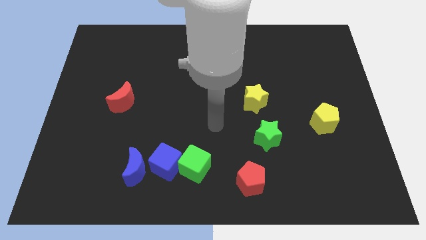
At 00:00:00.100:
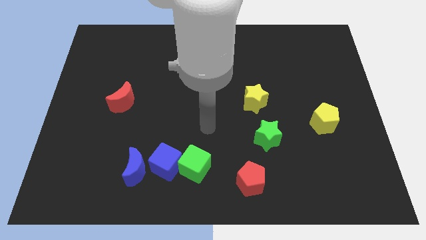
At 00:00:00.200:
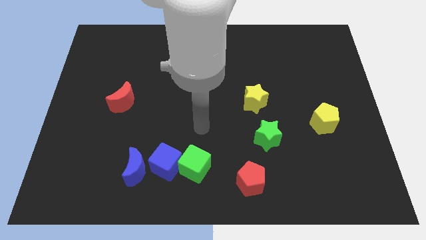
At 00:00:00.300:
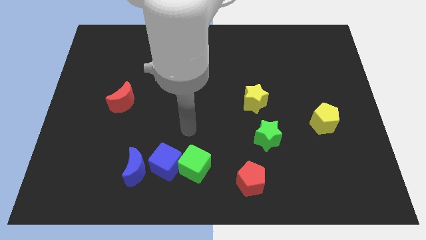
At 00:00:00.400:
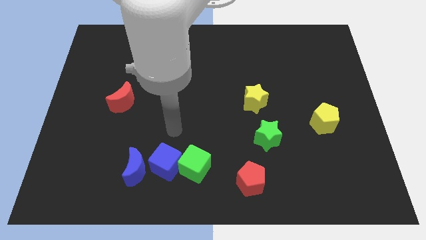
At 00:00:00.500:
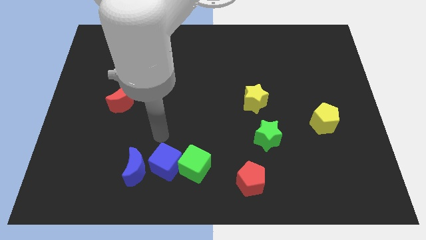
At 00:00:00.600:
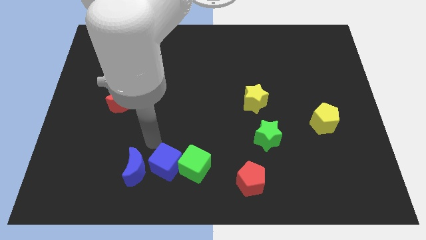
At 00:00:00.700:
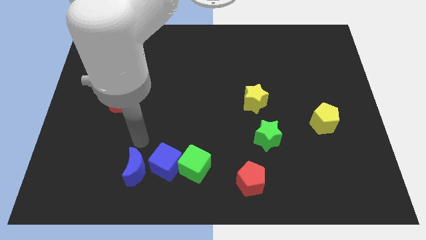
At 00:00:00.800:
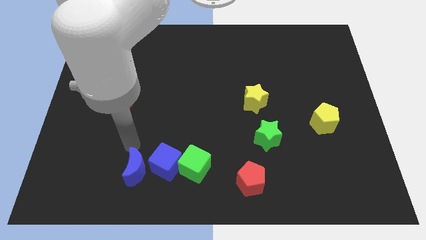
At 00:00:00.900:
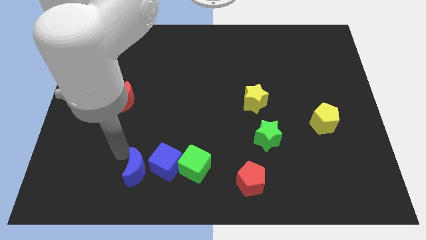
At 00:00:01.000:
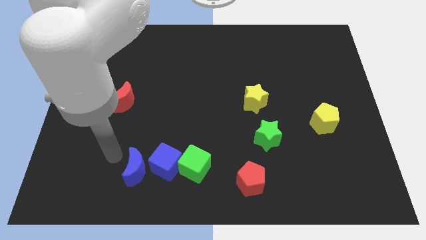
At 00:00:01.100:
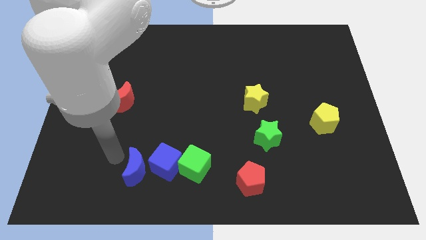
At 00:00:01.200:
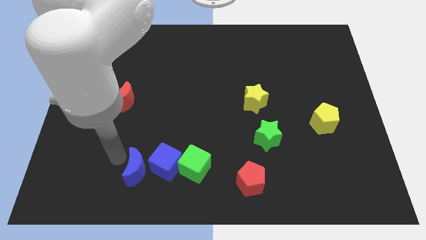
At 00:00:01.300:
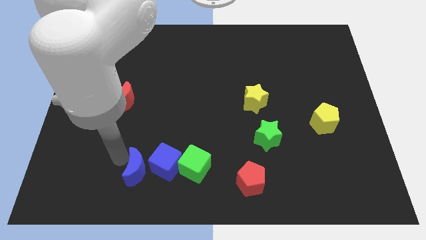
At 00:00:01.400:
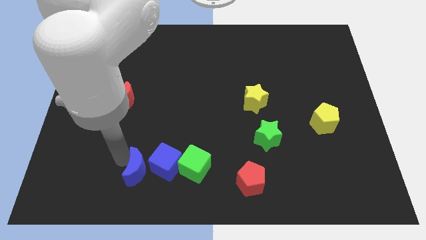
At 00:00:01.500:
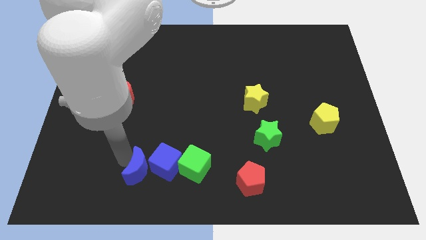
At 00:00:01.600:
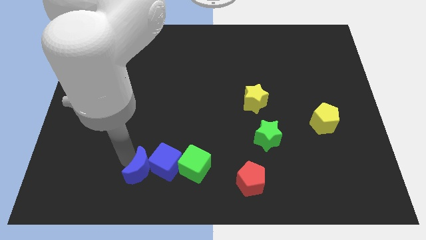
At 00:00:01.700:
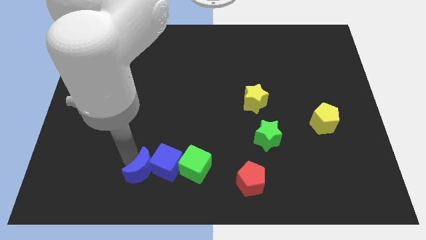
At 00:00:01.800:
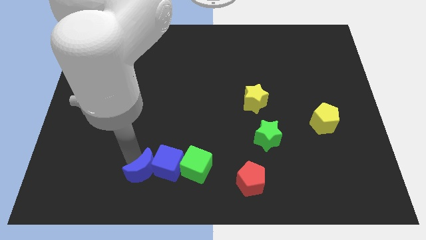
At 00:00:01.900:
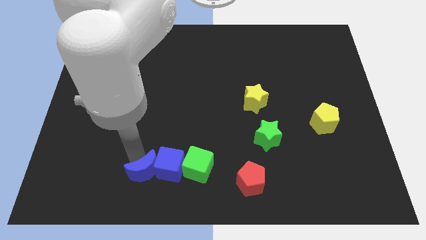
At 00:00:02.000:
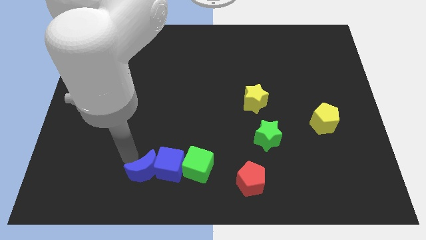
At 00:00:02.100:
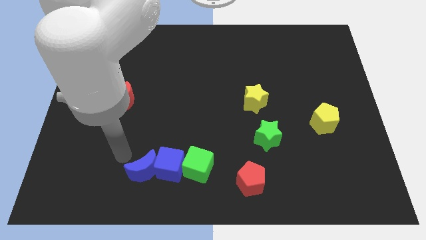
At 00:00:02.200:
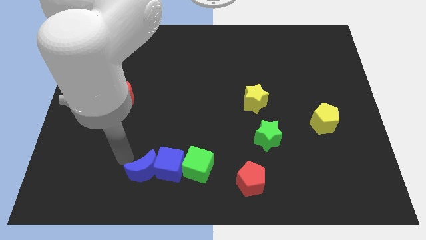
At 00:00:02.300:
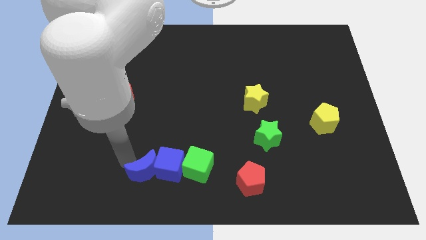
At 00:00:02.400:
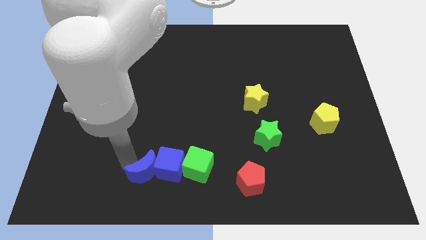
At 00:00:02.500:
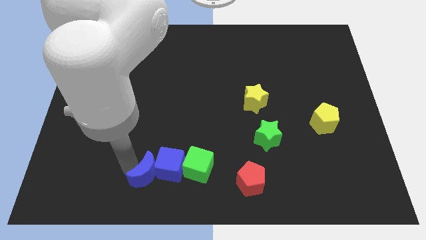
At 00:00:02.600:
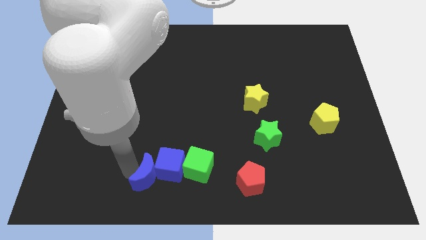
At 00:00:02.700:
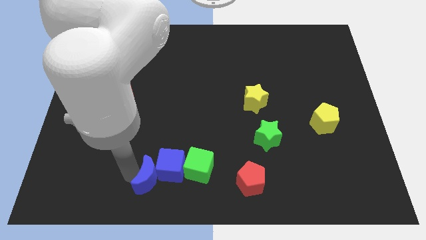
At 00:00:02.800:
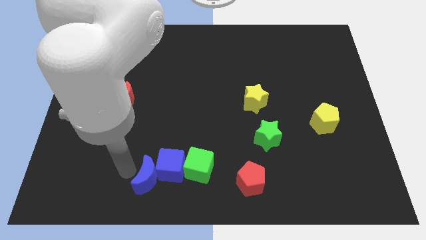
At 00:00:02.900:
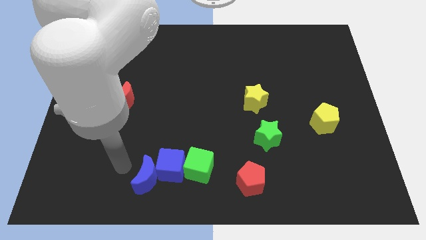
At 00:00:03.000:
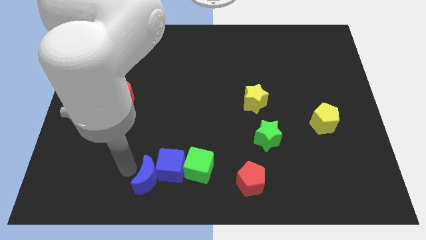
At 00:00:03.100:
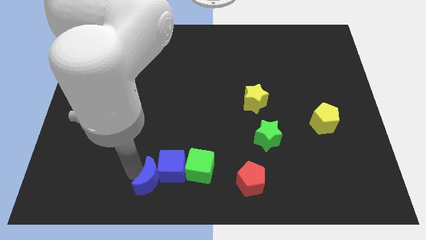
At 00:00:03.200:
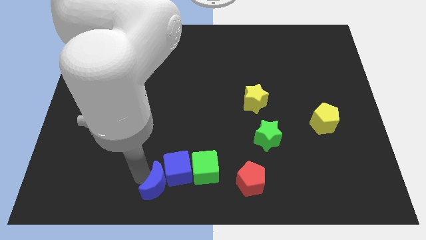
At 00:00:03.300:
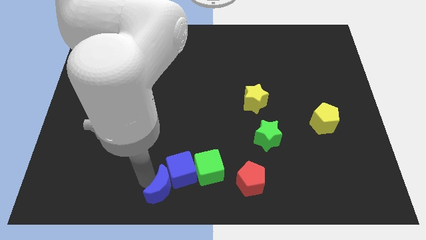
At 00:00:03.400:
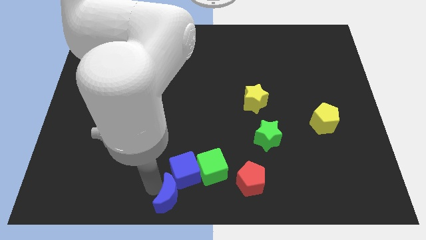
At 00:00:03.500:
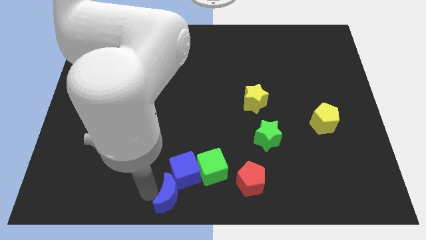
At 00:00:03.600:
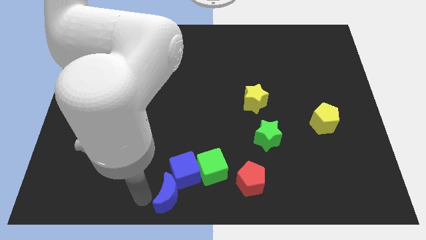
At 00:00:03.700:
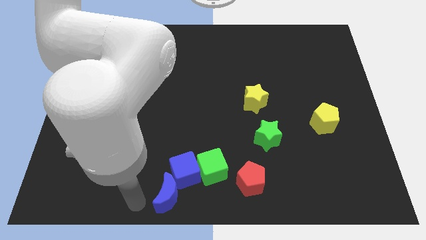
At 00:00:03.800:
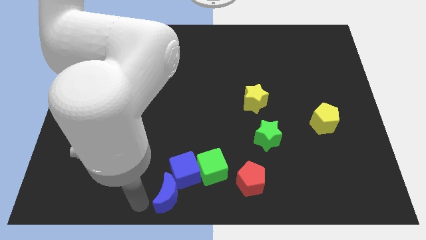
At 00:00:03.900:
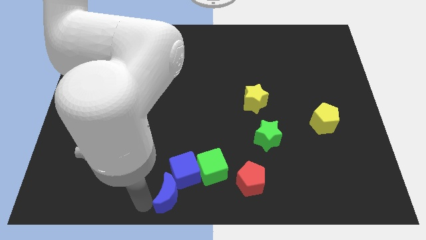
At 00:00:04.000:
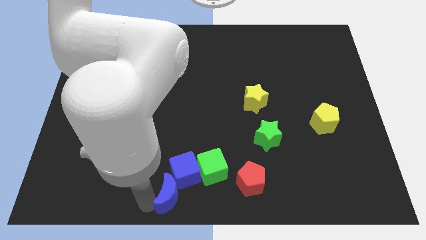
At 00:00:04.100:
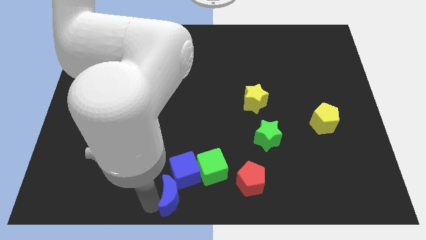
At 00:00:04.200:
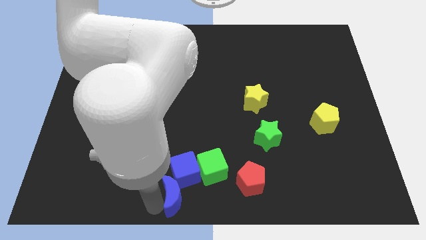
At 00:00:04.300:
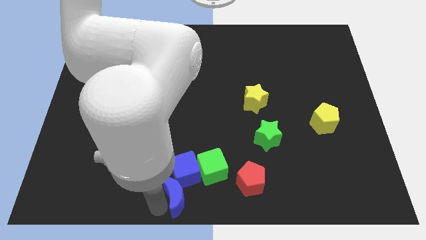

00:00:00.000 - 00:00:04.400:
slightly push the blue moon right

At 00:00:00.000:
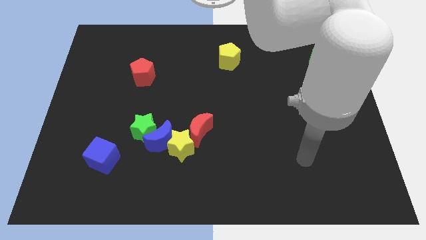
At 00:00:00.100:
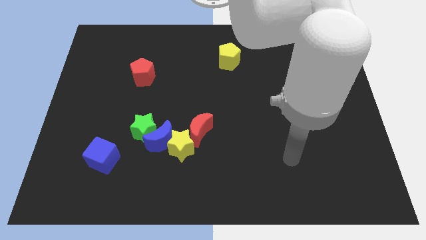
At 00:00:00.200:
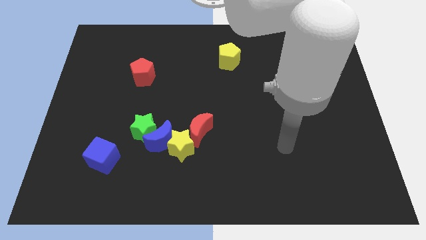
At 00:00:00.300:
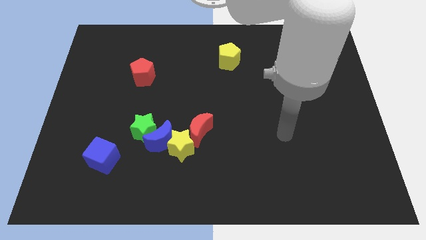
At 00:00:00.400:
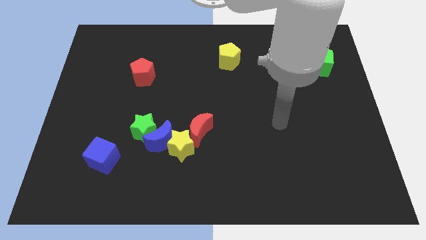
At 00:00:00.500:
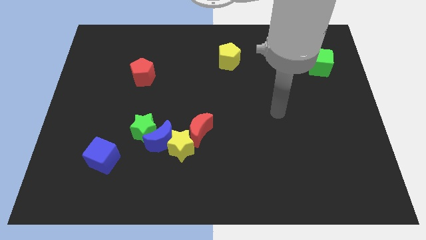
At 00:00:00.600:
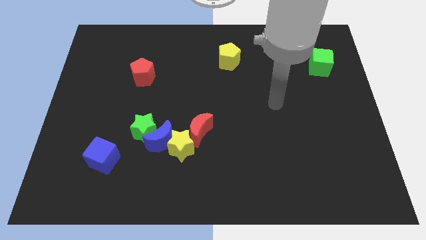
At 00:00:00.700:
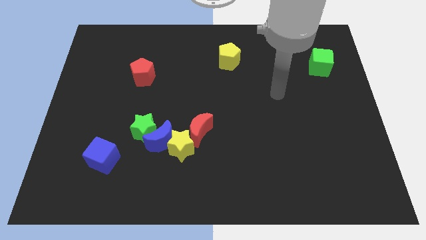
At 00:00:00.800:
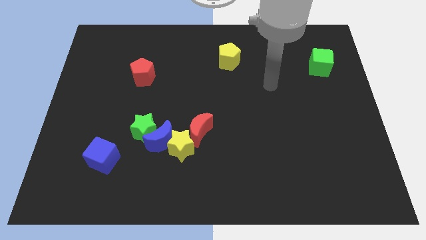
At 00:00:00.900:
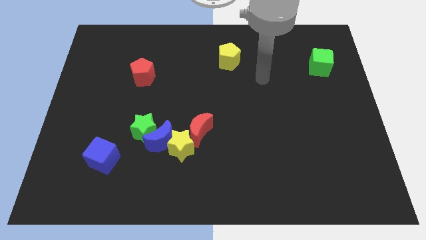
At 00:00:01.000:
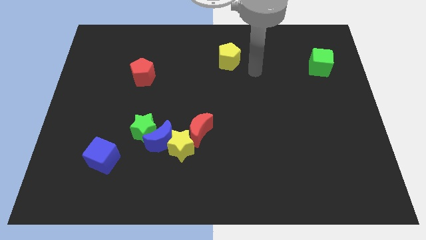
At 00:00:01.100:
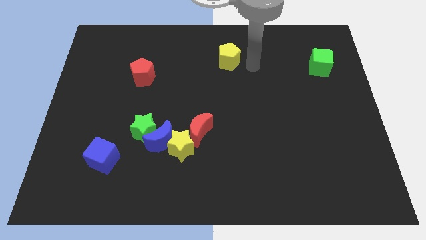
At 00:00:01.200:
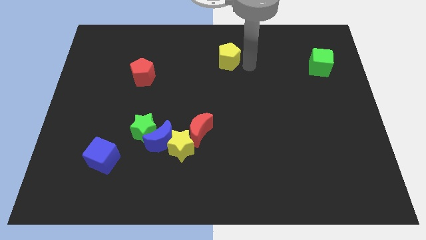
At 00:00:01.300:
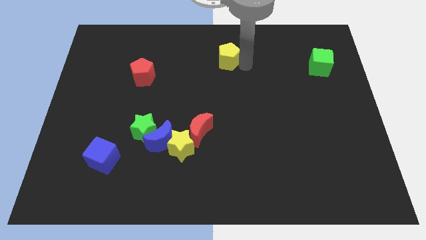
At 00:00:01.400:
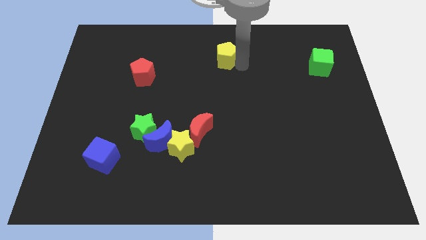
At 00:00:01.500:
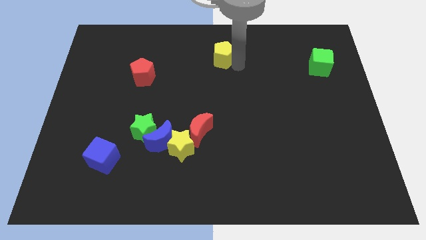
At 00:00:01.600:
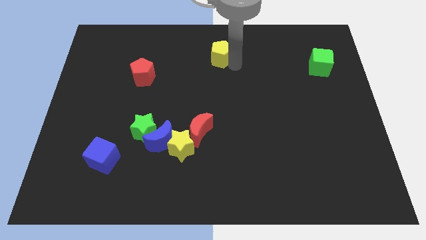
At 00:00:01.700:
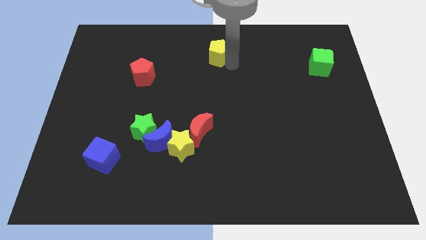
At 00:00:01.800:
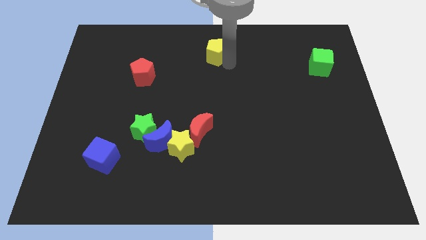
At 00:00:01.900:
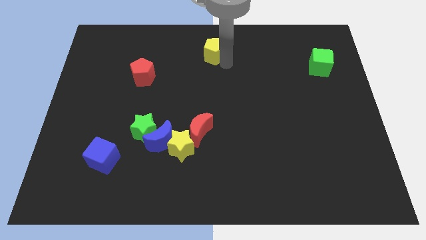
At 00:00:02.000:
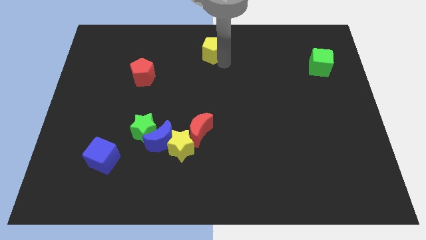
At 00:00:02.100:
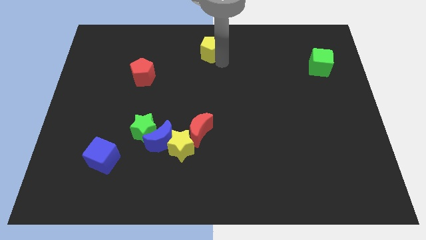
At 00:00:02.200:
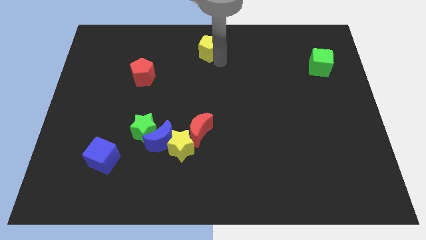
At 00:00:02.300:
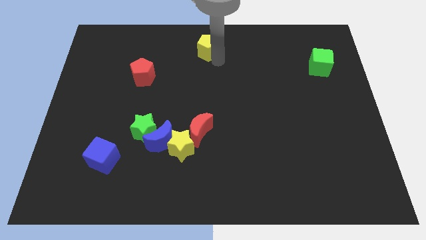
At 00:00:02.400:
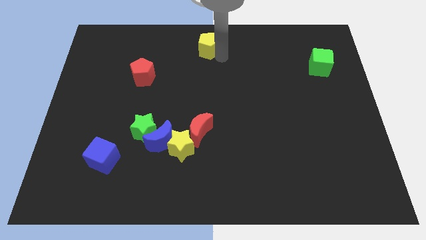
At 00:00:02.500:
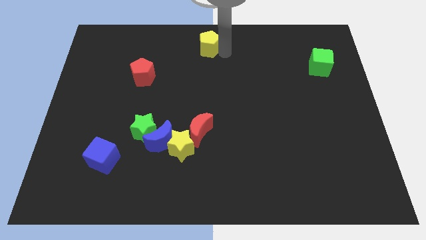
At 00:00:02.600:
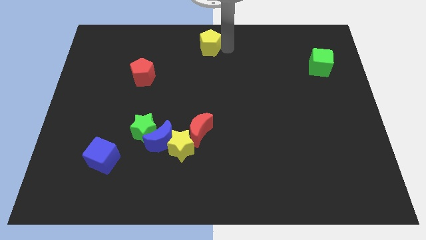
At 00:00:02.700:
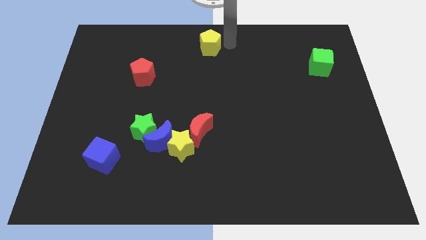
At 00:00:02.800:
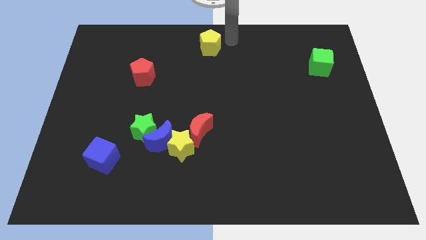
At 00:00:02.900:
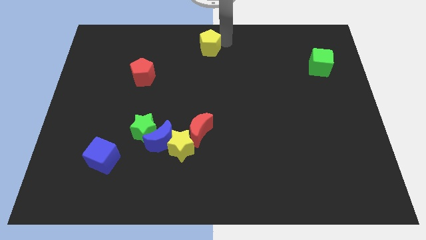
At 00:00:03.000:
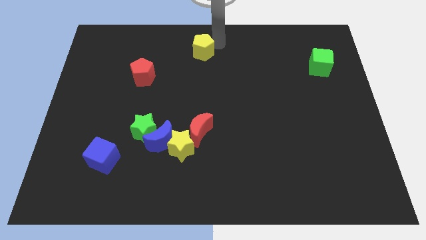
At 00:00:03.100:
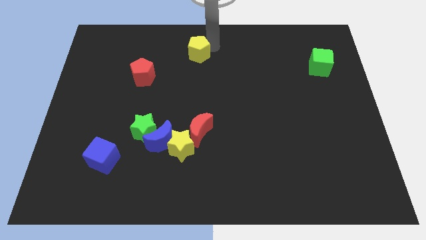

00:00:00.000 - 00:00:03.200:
slightly move the yellow pentagon to the left

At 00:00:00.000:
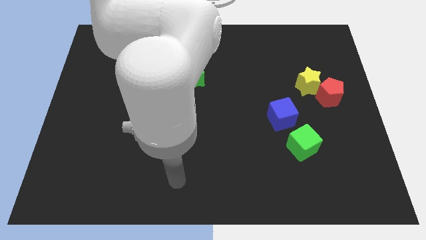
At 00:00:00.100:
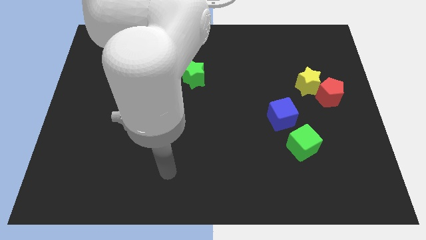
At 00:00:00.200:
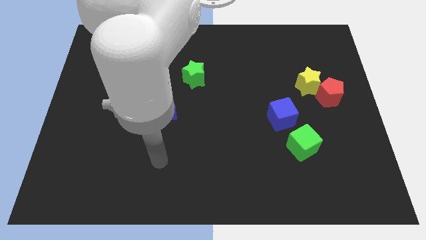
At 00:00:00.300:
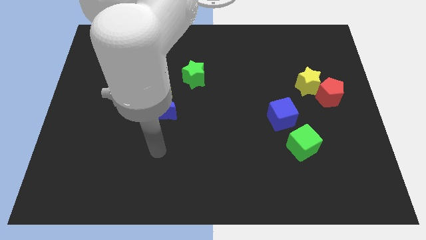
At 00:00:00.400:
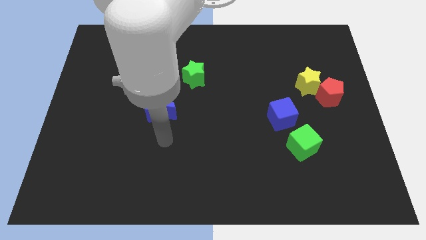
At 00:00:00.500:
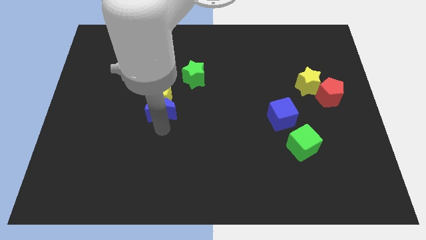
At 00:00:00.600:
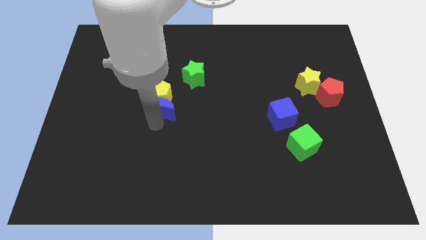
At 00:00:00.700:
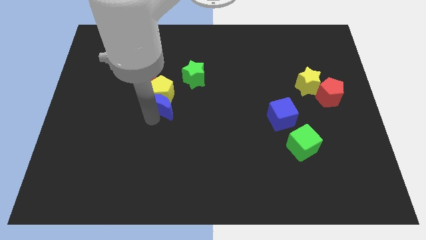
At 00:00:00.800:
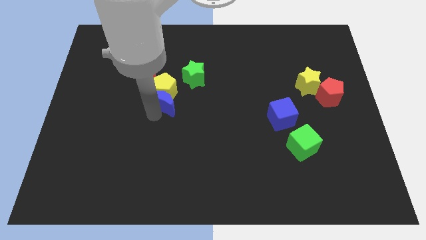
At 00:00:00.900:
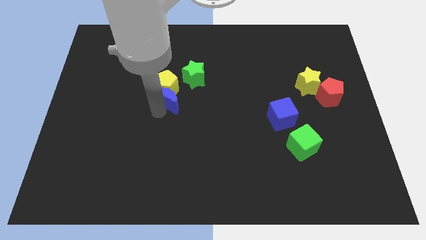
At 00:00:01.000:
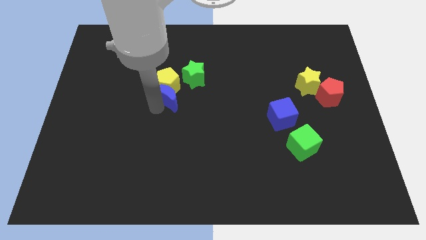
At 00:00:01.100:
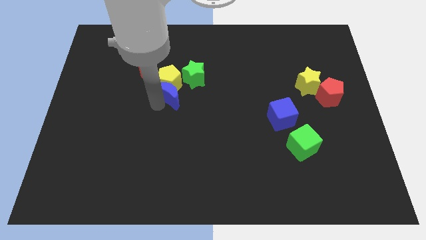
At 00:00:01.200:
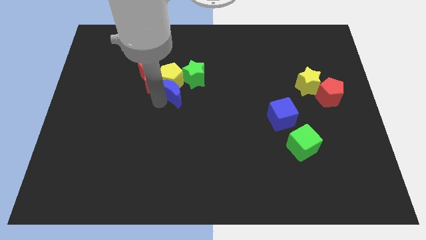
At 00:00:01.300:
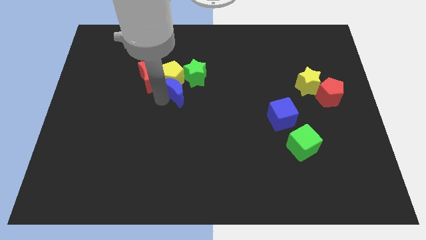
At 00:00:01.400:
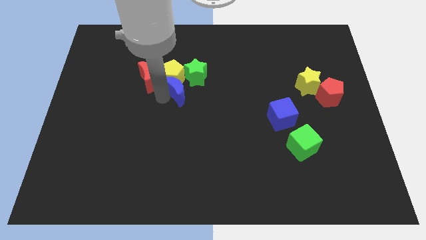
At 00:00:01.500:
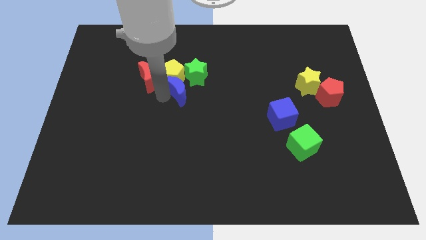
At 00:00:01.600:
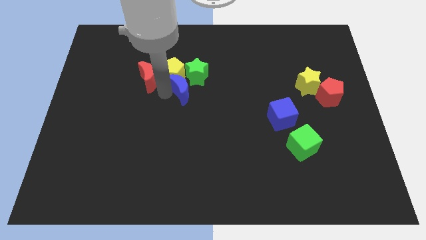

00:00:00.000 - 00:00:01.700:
slightly slide the yellow pentagon up and right diagonally
